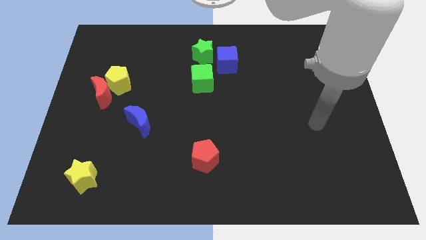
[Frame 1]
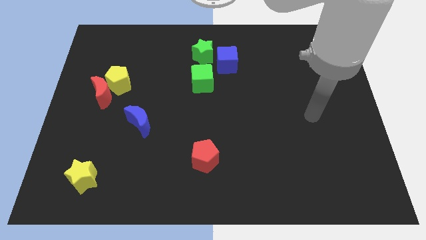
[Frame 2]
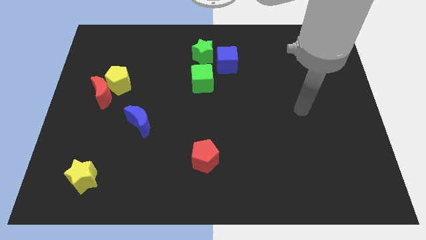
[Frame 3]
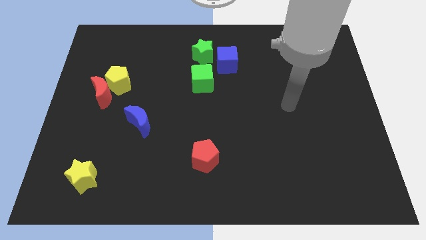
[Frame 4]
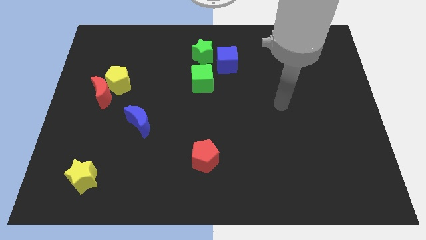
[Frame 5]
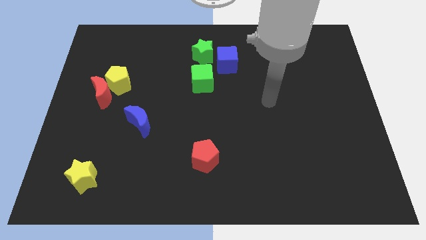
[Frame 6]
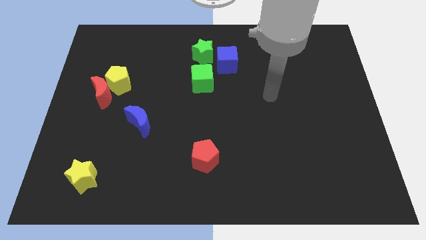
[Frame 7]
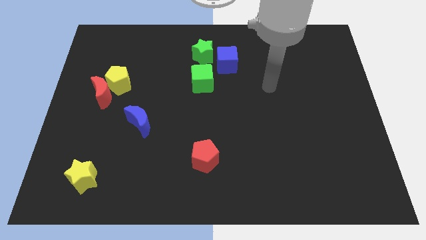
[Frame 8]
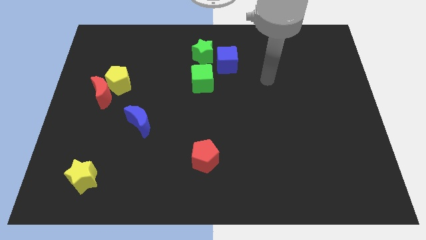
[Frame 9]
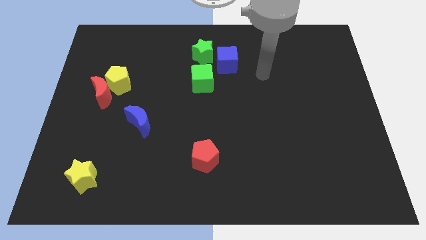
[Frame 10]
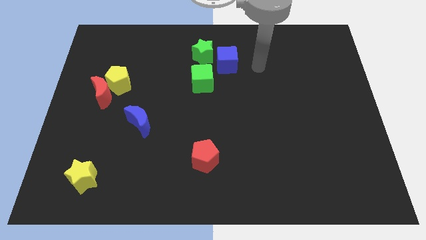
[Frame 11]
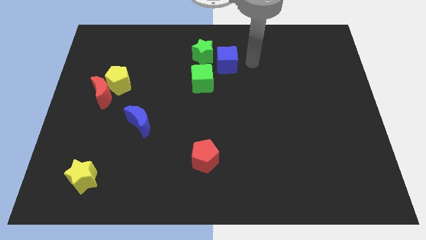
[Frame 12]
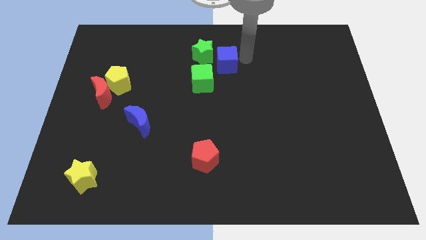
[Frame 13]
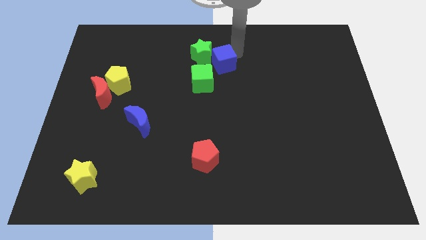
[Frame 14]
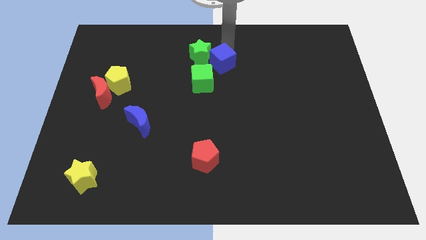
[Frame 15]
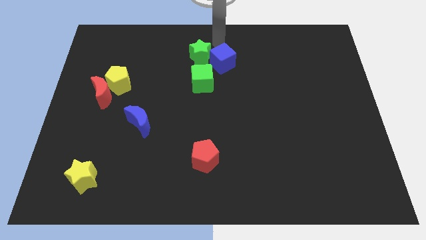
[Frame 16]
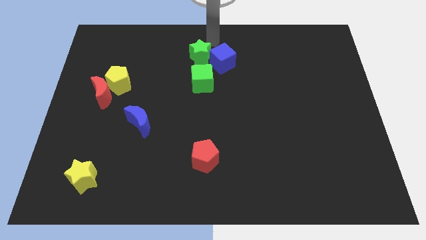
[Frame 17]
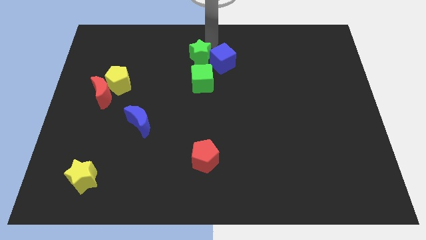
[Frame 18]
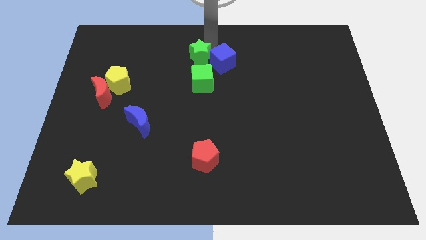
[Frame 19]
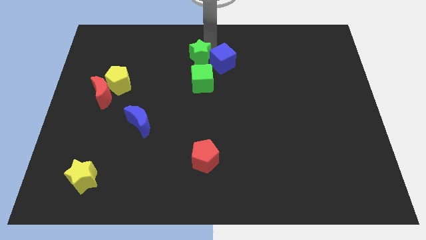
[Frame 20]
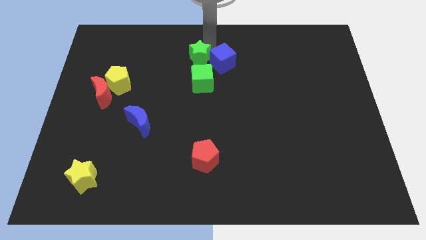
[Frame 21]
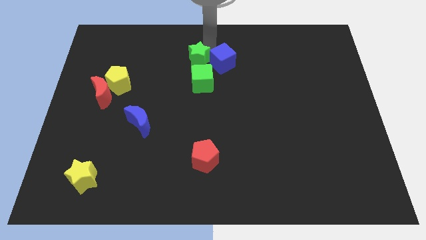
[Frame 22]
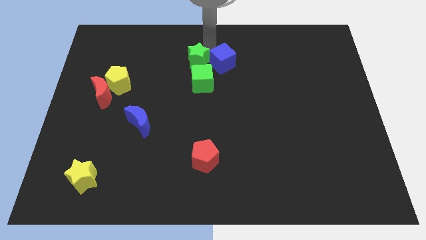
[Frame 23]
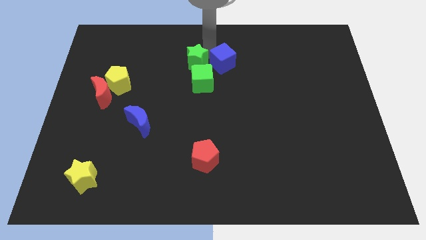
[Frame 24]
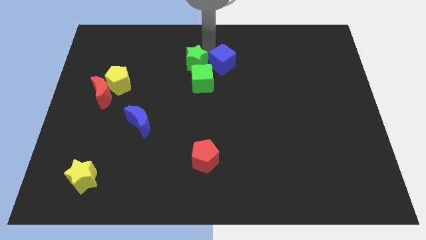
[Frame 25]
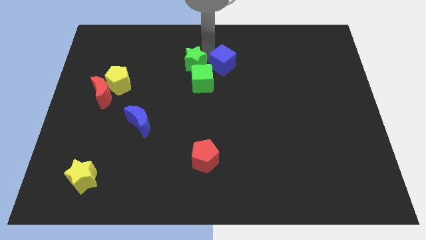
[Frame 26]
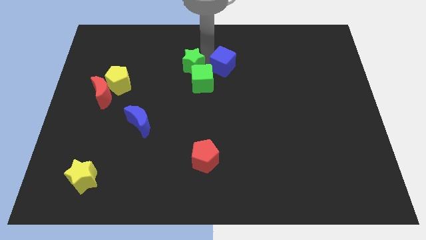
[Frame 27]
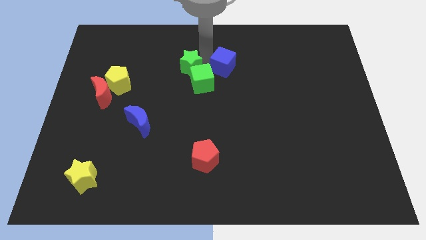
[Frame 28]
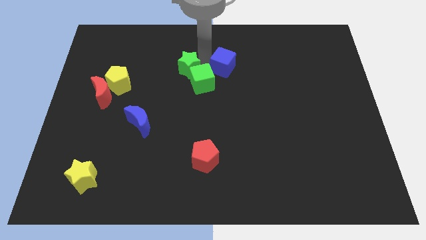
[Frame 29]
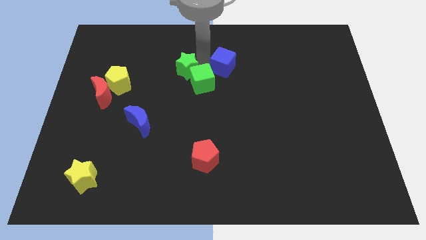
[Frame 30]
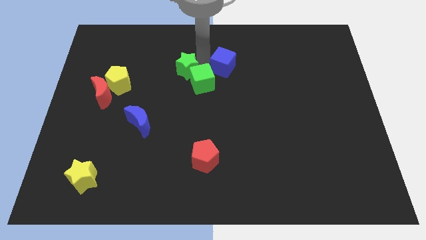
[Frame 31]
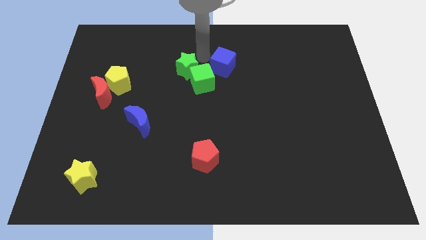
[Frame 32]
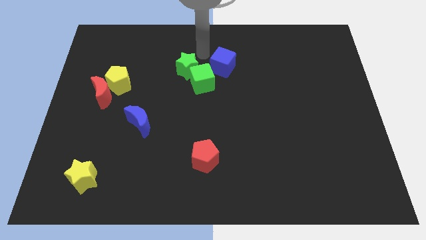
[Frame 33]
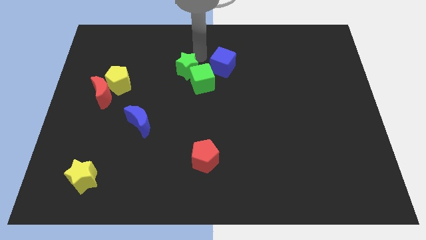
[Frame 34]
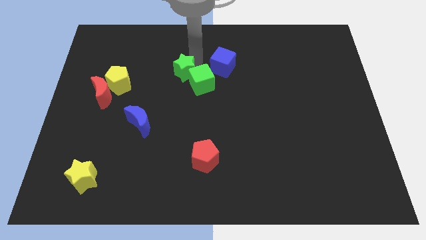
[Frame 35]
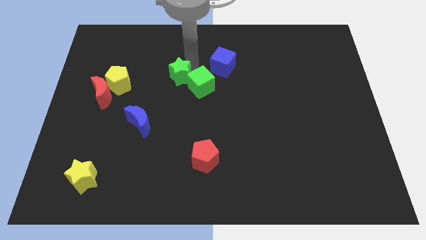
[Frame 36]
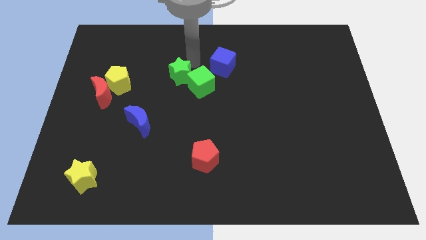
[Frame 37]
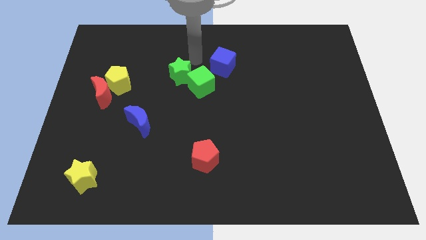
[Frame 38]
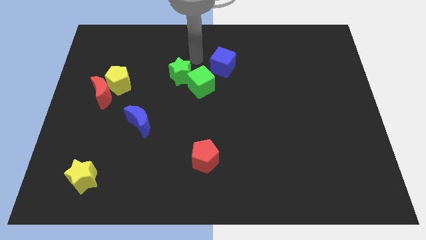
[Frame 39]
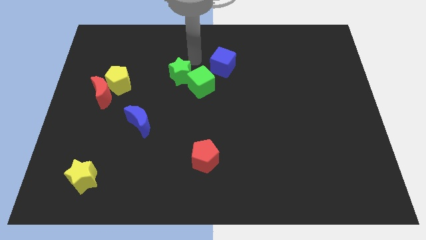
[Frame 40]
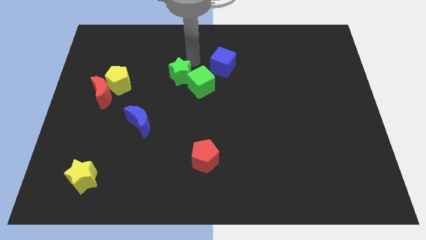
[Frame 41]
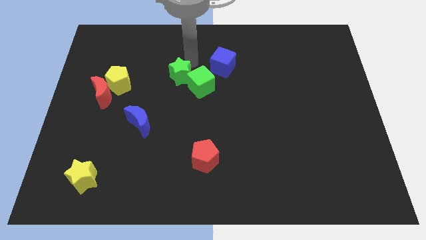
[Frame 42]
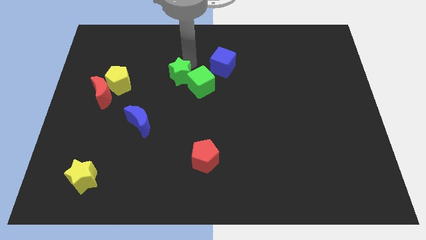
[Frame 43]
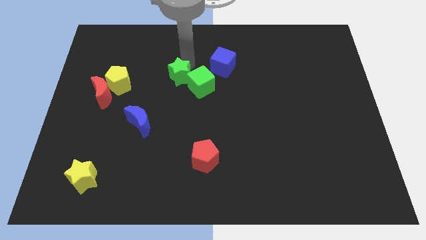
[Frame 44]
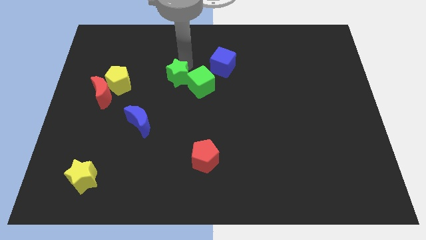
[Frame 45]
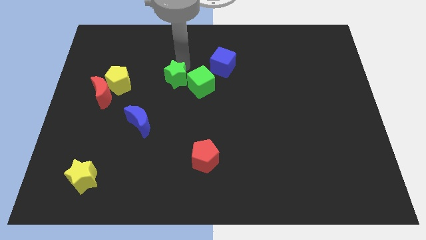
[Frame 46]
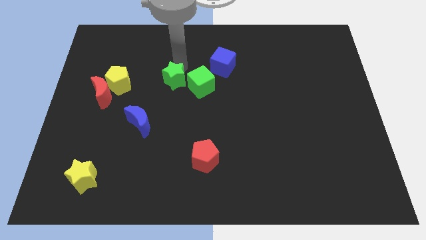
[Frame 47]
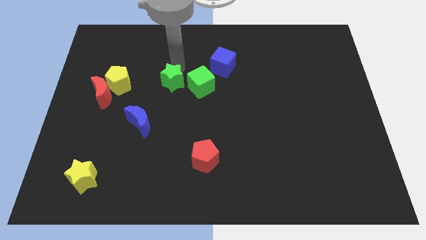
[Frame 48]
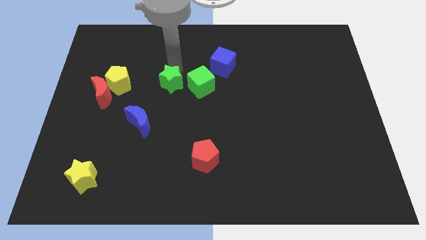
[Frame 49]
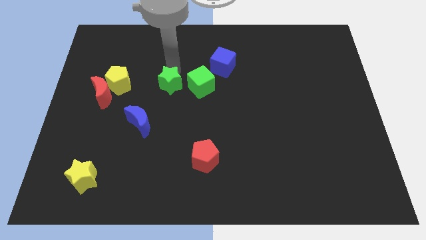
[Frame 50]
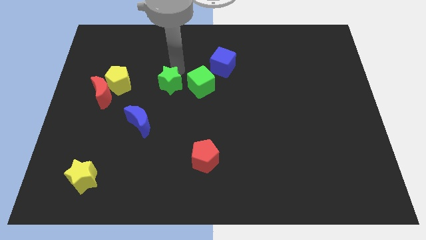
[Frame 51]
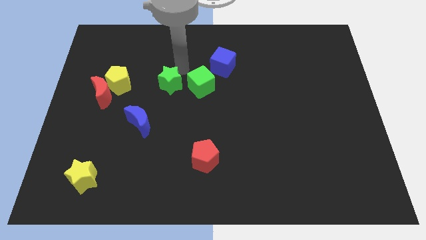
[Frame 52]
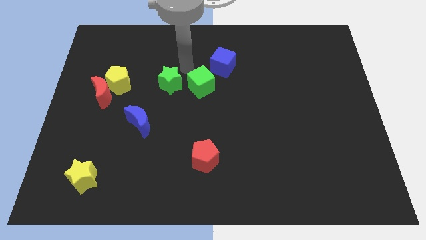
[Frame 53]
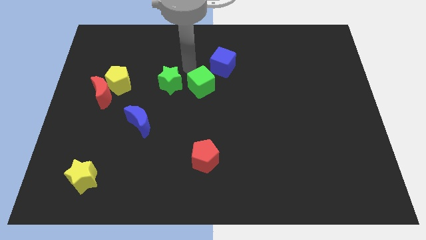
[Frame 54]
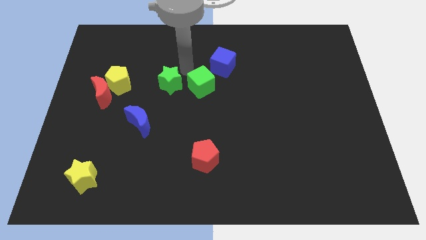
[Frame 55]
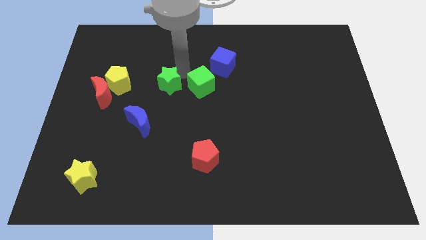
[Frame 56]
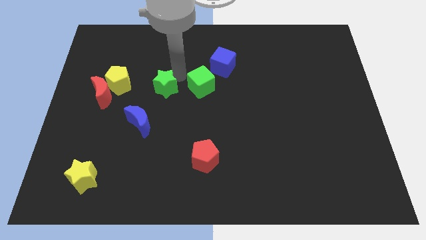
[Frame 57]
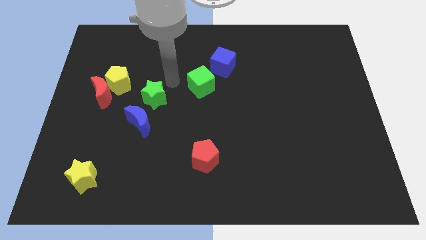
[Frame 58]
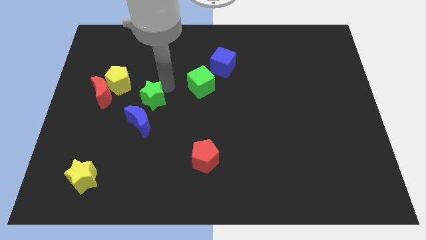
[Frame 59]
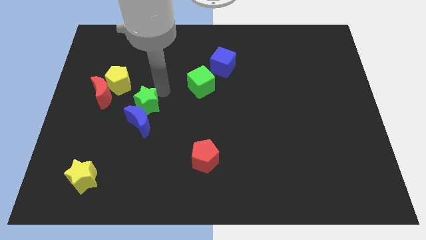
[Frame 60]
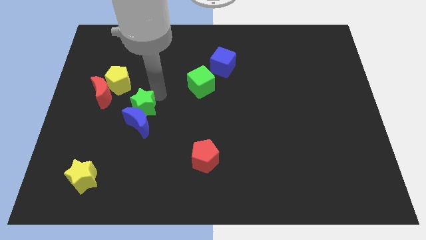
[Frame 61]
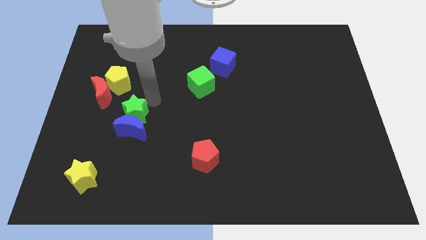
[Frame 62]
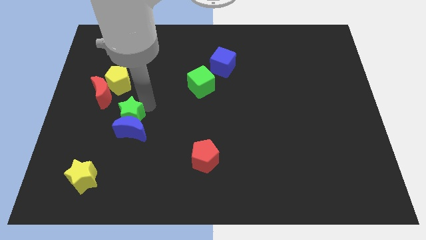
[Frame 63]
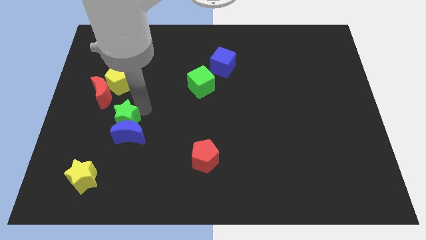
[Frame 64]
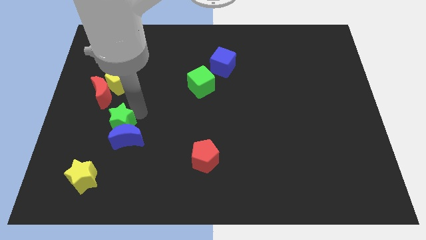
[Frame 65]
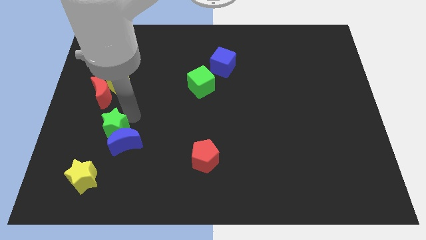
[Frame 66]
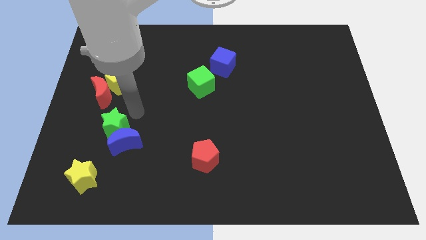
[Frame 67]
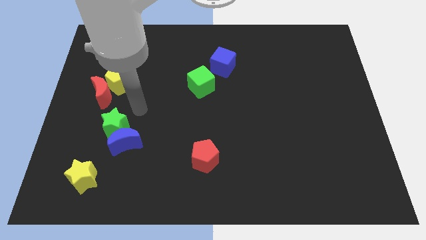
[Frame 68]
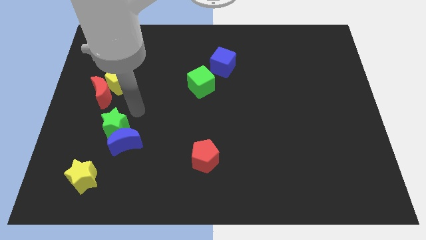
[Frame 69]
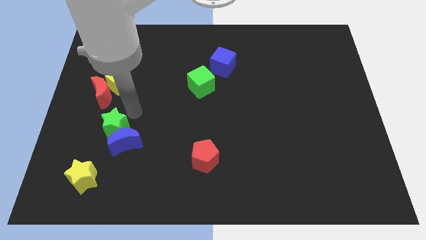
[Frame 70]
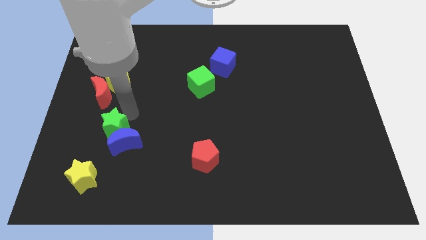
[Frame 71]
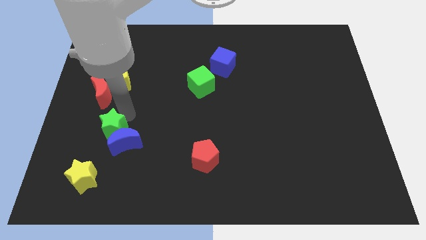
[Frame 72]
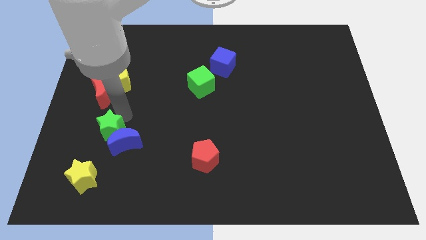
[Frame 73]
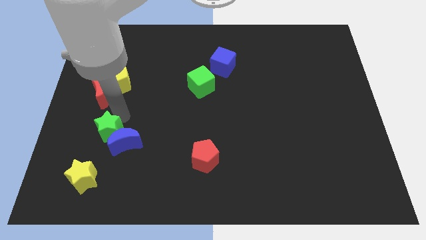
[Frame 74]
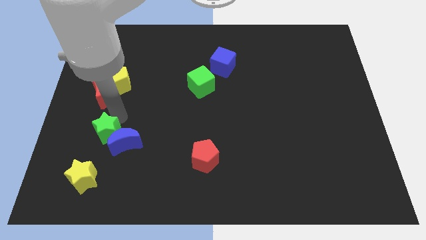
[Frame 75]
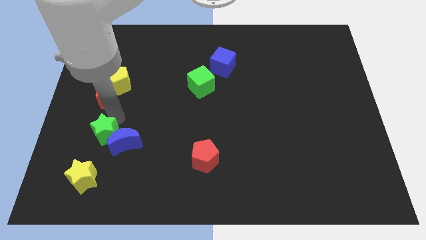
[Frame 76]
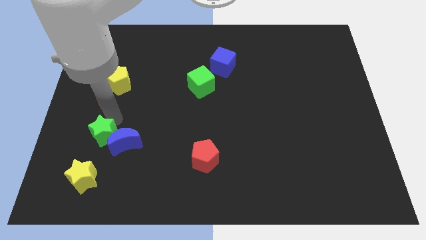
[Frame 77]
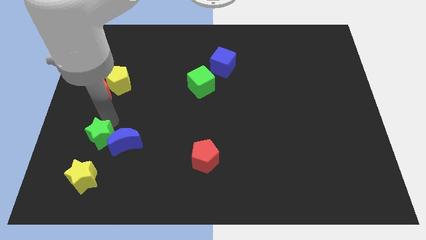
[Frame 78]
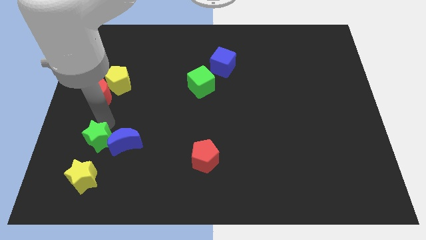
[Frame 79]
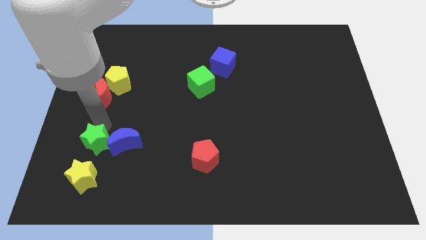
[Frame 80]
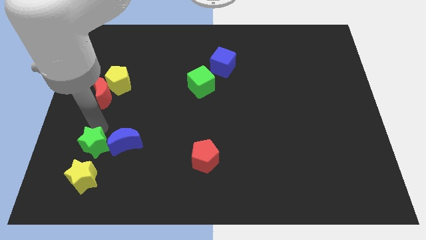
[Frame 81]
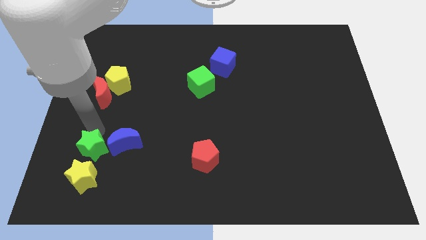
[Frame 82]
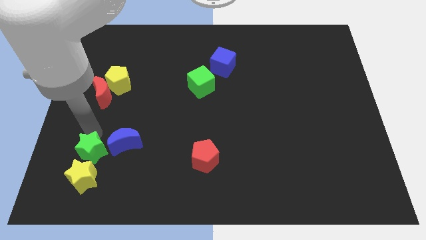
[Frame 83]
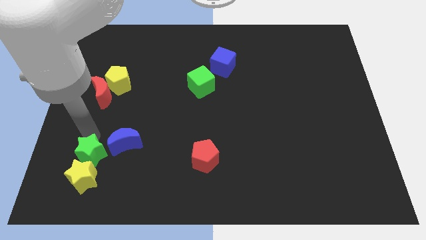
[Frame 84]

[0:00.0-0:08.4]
put the green star close to the yellow star
